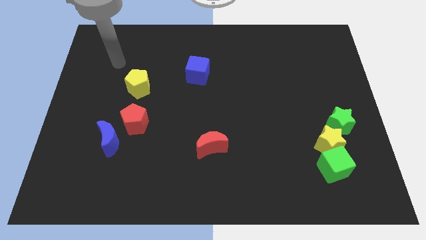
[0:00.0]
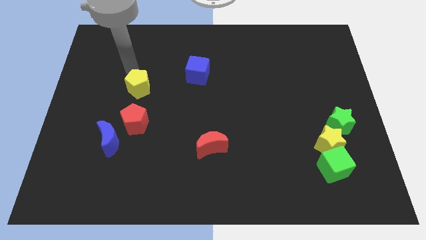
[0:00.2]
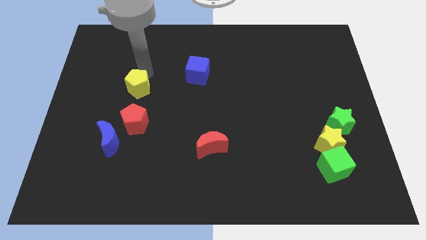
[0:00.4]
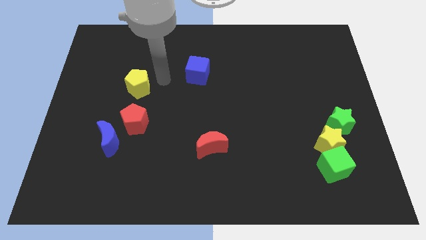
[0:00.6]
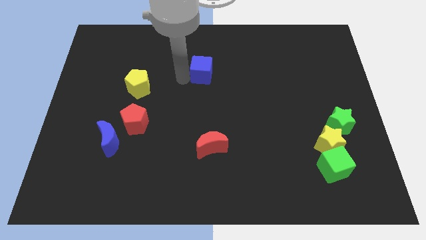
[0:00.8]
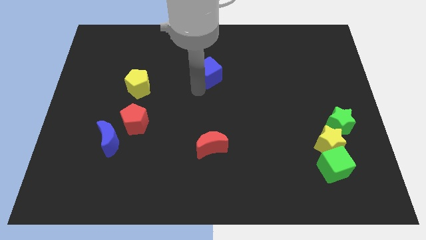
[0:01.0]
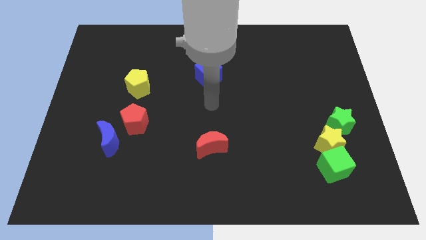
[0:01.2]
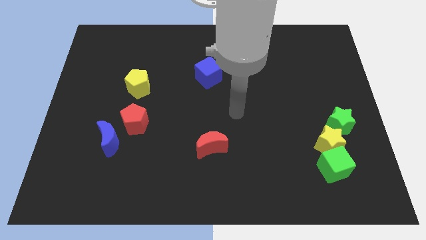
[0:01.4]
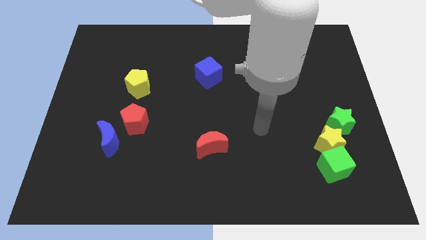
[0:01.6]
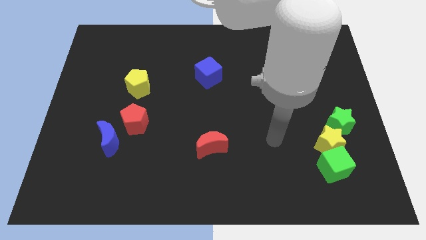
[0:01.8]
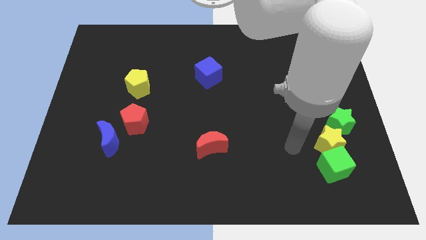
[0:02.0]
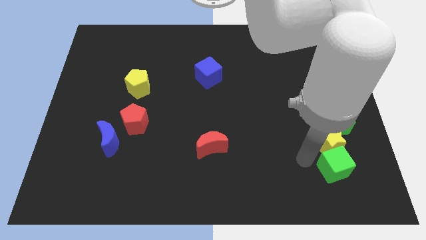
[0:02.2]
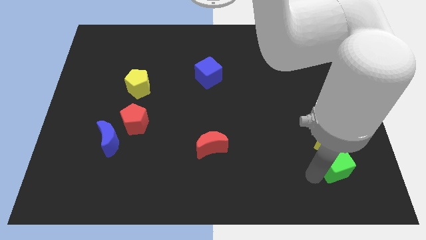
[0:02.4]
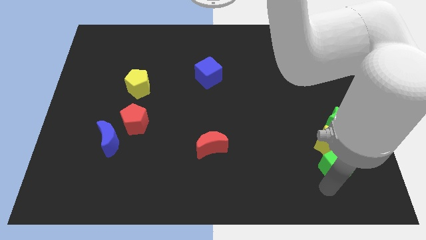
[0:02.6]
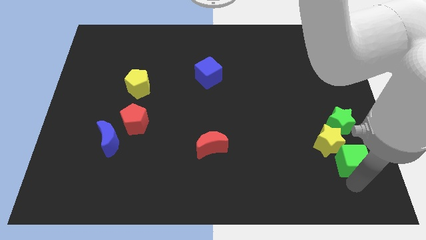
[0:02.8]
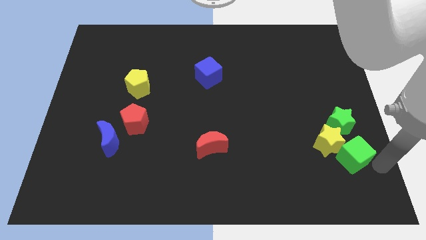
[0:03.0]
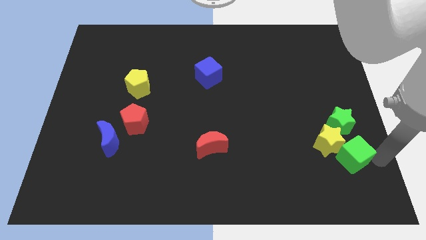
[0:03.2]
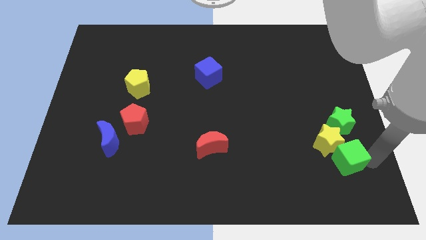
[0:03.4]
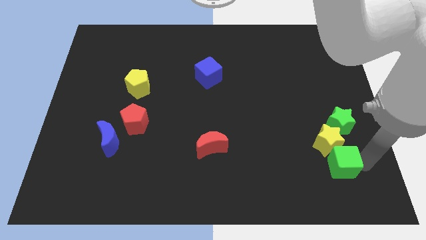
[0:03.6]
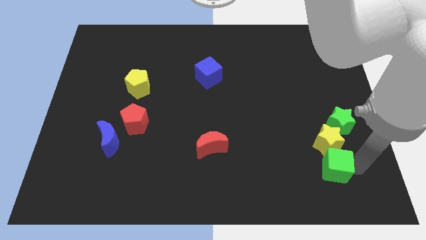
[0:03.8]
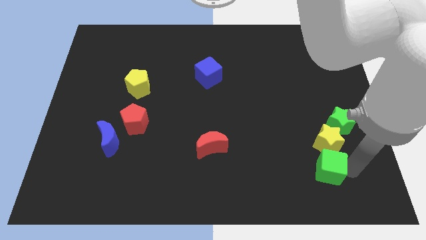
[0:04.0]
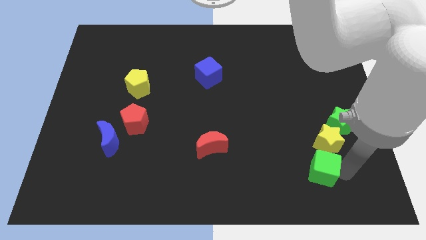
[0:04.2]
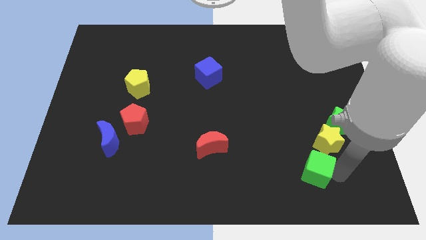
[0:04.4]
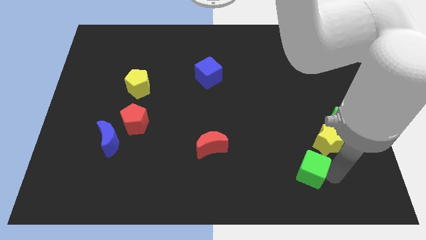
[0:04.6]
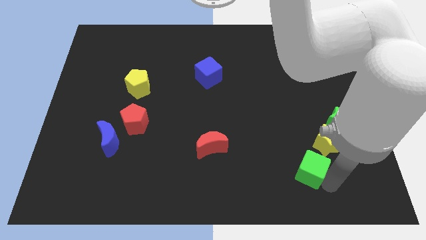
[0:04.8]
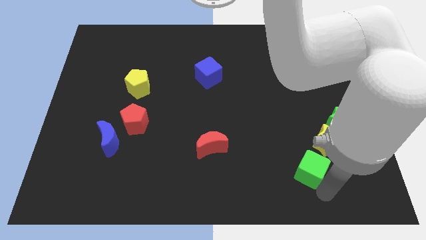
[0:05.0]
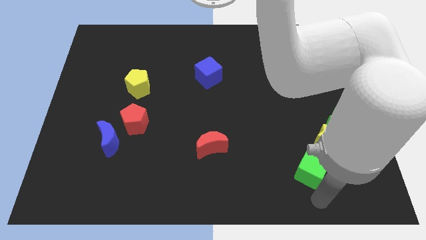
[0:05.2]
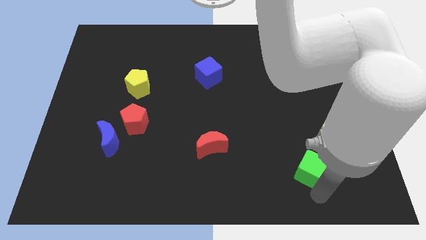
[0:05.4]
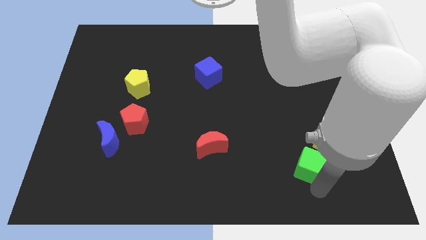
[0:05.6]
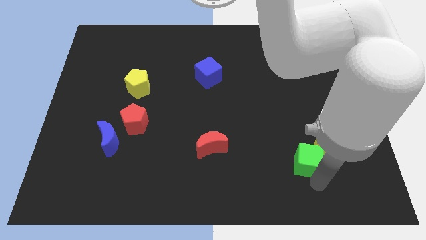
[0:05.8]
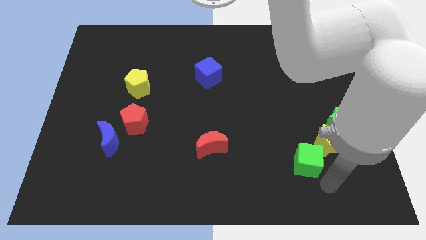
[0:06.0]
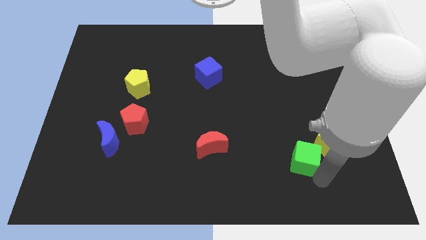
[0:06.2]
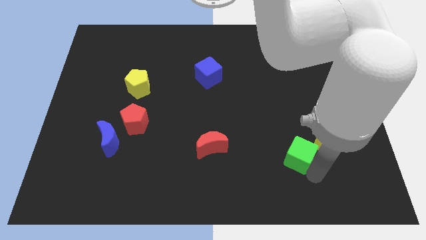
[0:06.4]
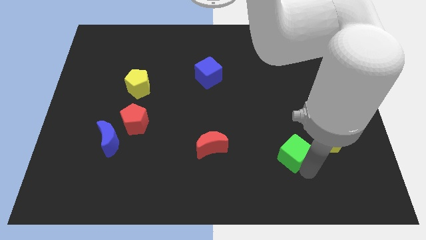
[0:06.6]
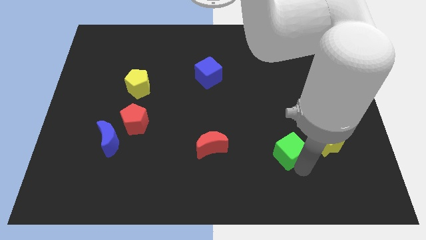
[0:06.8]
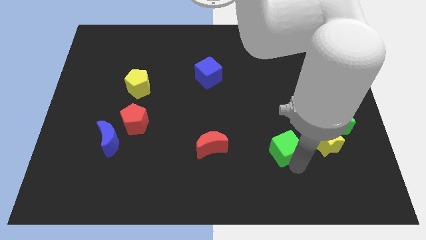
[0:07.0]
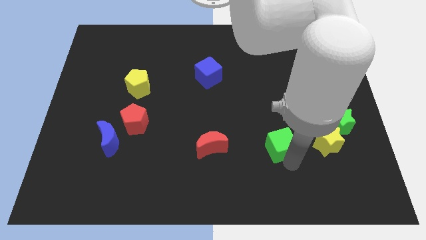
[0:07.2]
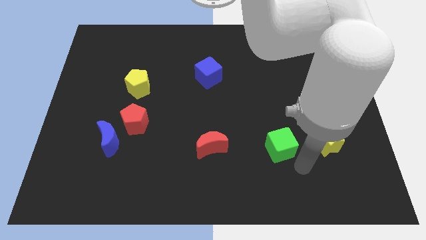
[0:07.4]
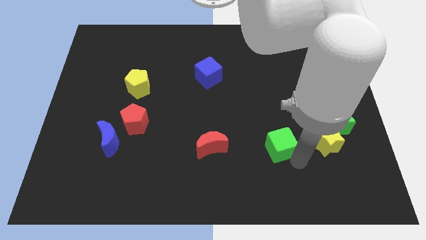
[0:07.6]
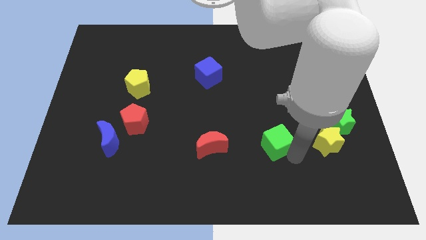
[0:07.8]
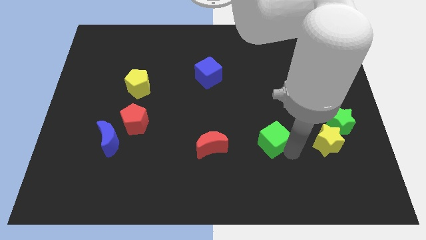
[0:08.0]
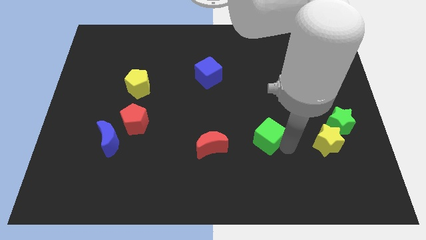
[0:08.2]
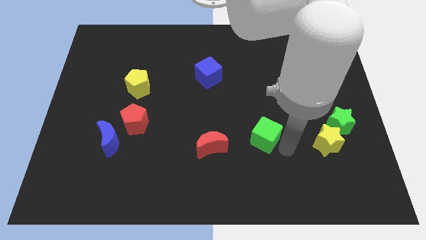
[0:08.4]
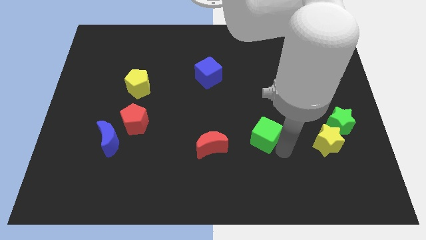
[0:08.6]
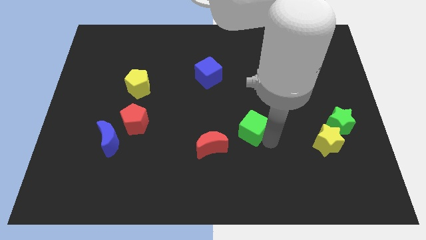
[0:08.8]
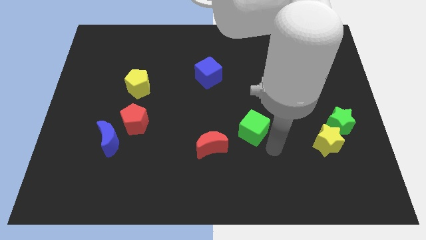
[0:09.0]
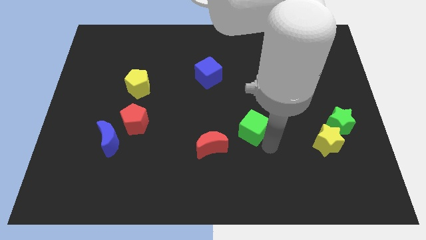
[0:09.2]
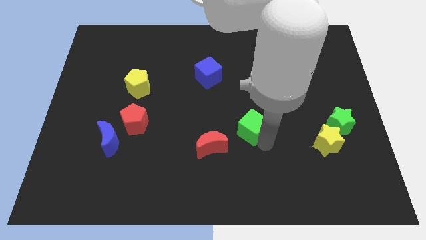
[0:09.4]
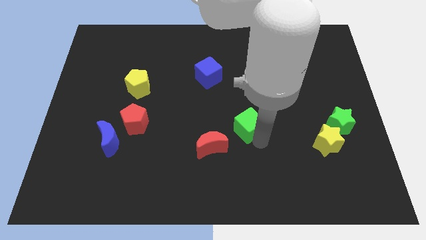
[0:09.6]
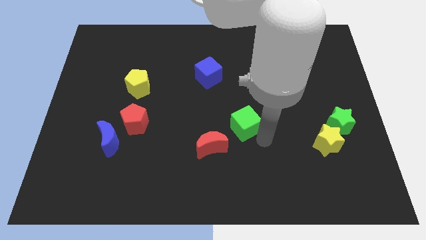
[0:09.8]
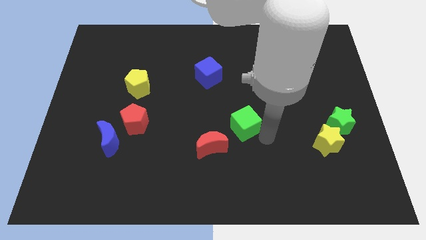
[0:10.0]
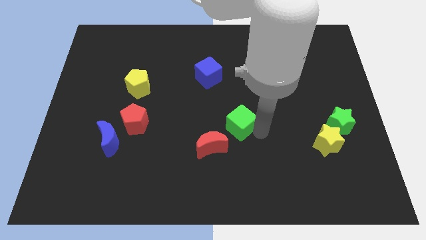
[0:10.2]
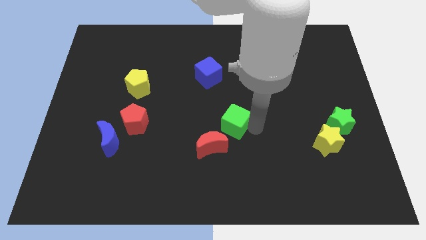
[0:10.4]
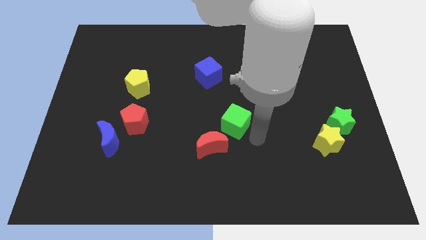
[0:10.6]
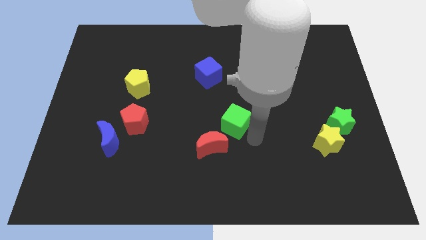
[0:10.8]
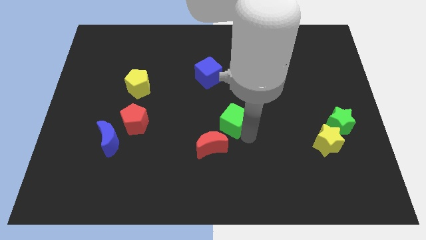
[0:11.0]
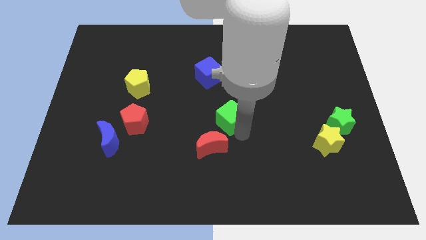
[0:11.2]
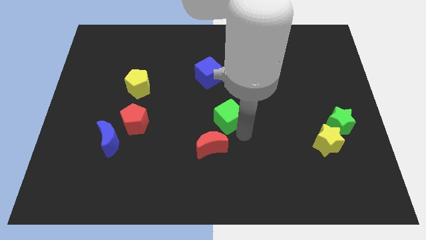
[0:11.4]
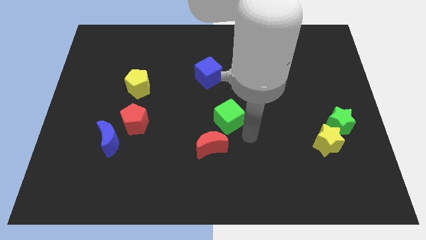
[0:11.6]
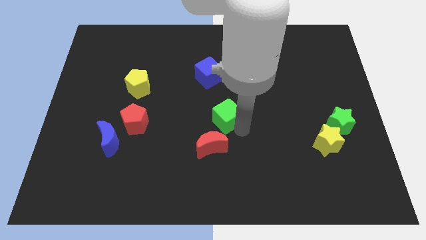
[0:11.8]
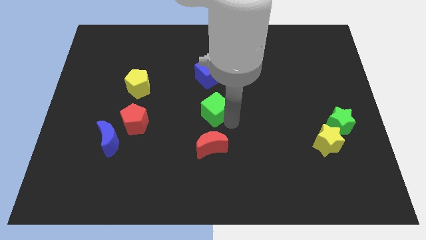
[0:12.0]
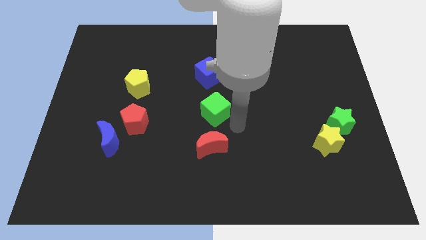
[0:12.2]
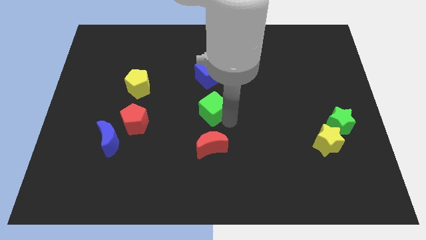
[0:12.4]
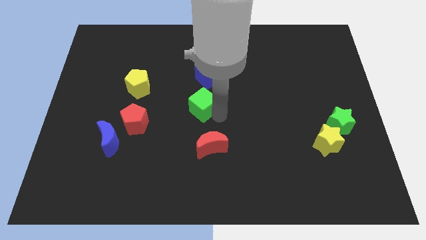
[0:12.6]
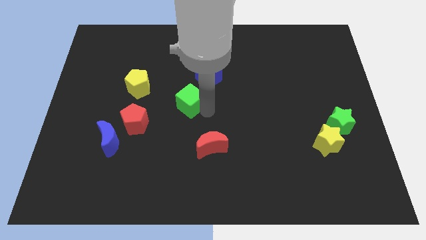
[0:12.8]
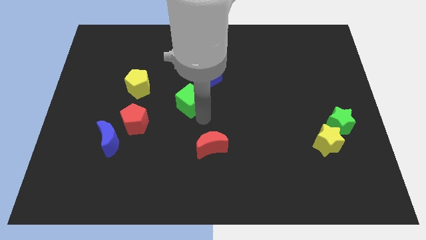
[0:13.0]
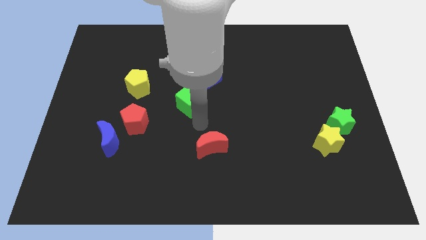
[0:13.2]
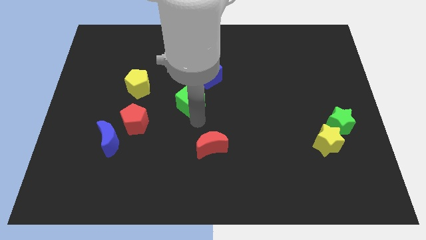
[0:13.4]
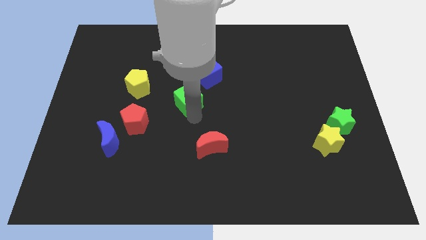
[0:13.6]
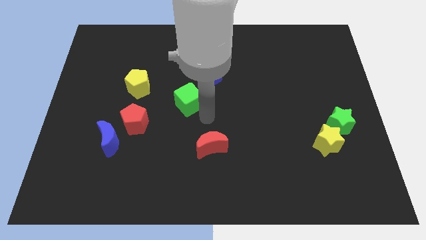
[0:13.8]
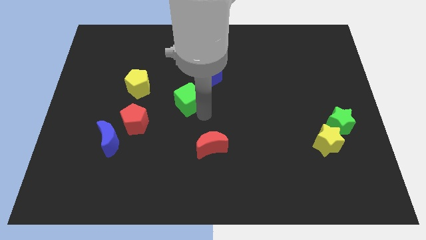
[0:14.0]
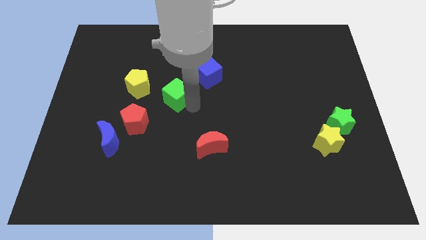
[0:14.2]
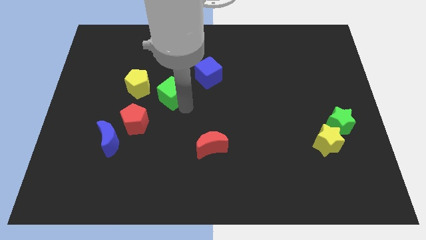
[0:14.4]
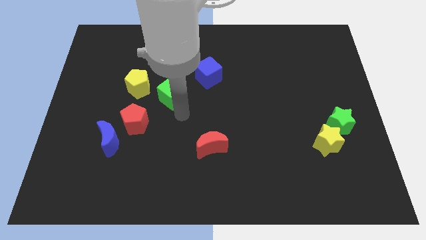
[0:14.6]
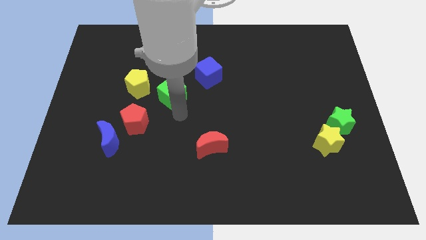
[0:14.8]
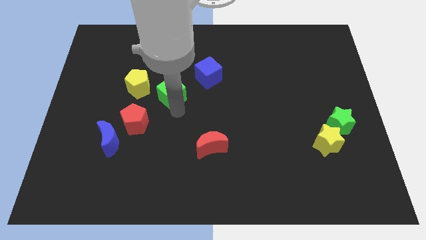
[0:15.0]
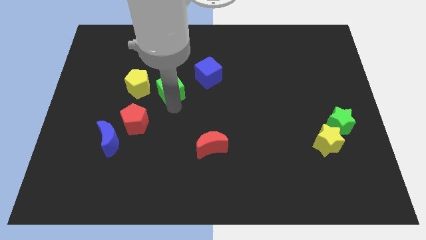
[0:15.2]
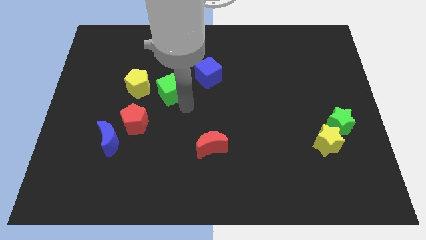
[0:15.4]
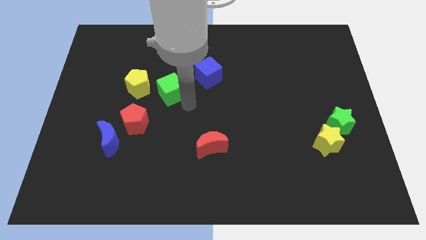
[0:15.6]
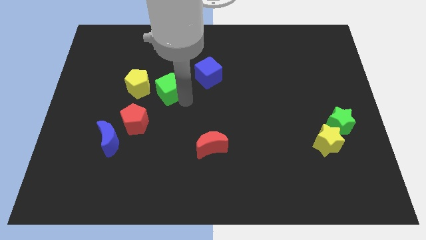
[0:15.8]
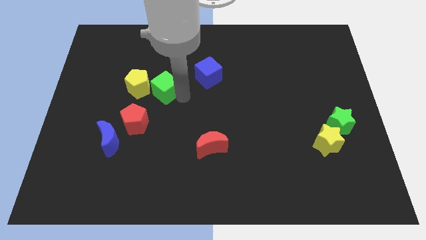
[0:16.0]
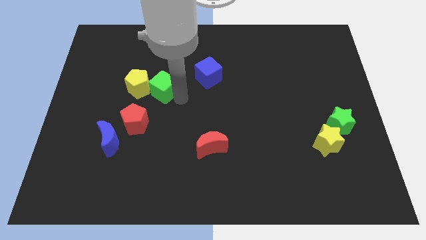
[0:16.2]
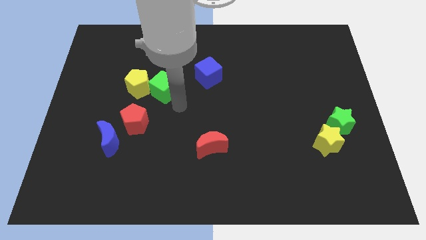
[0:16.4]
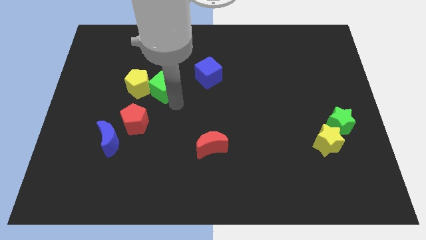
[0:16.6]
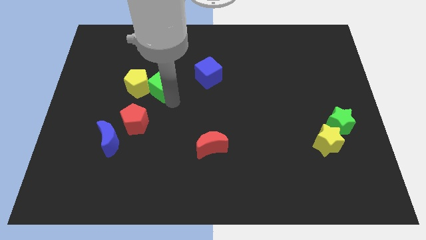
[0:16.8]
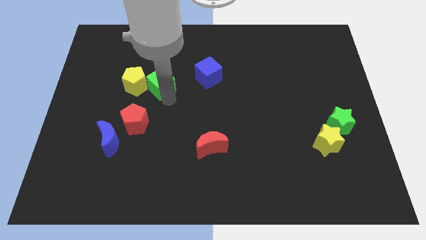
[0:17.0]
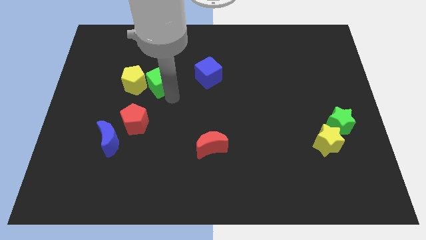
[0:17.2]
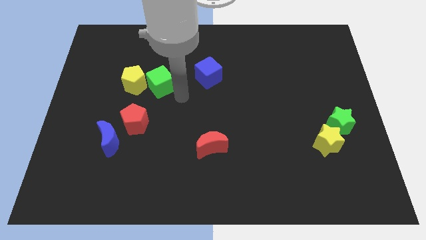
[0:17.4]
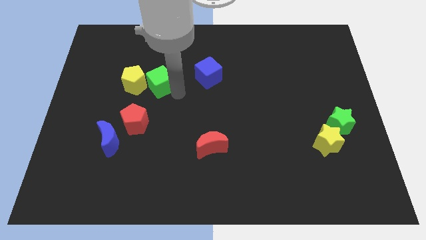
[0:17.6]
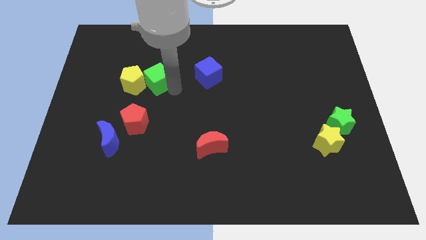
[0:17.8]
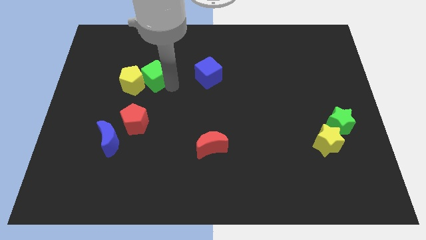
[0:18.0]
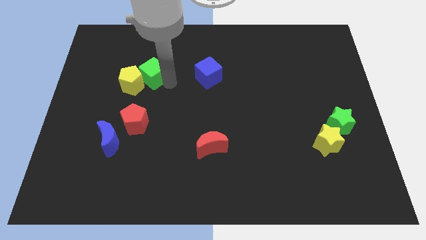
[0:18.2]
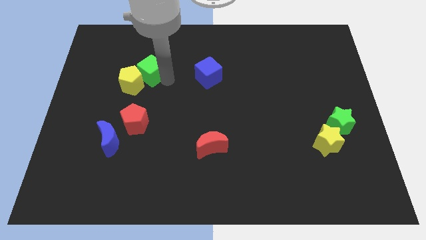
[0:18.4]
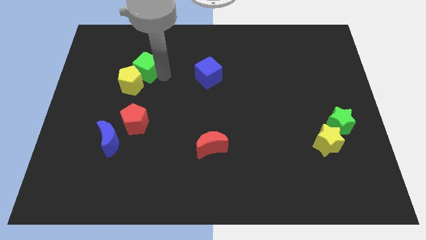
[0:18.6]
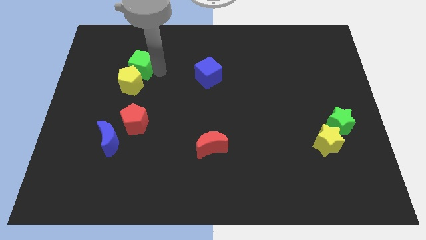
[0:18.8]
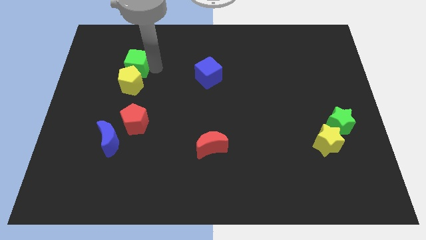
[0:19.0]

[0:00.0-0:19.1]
move the green cube to the top left of the yellow pentagon
